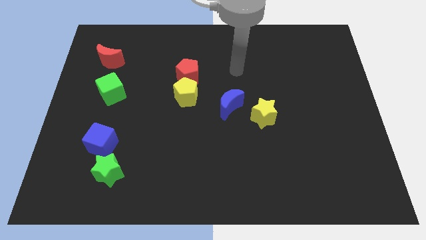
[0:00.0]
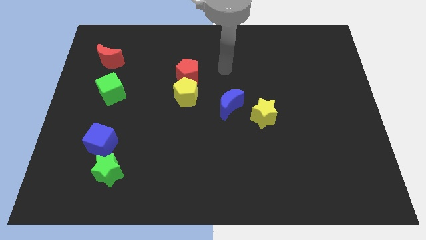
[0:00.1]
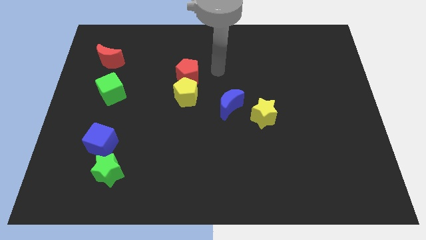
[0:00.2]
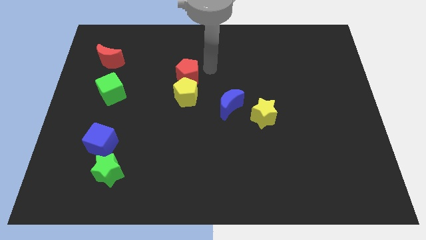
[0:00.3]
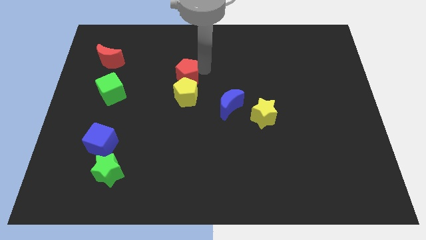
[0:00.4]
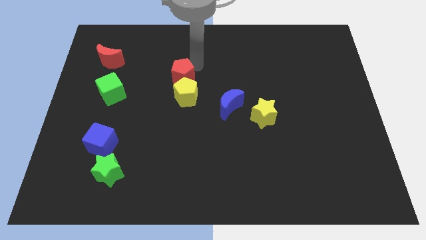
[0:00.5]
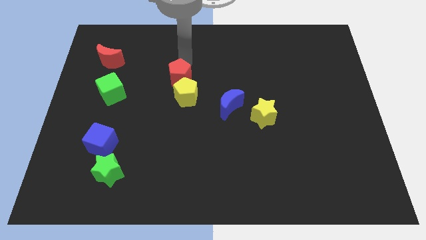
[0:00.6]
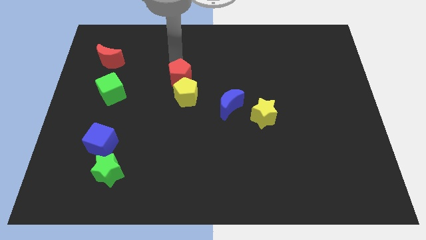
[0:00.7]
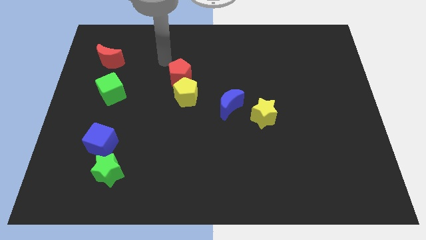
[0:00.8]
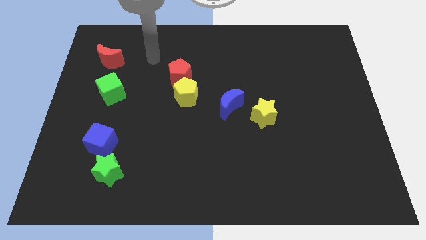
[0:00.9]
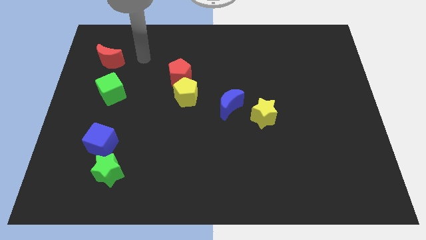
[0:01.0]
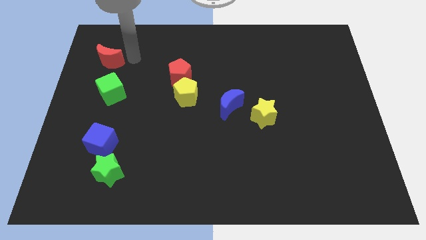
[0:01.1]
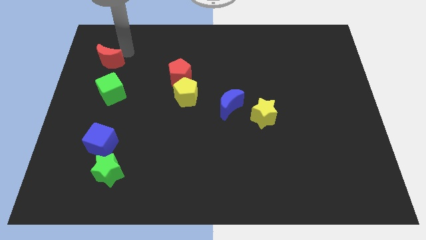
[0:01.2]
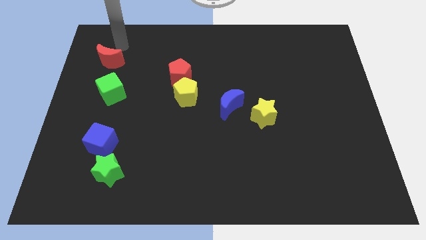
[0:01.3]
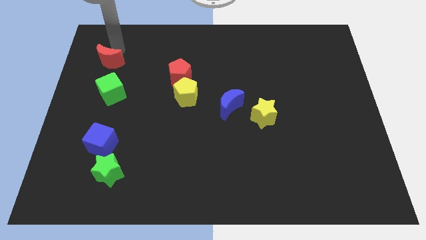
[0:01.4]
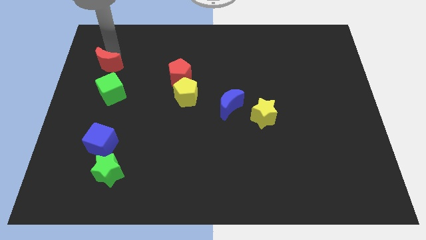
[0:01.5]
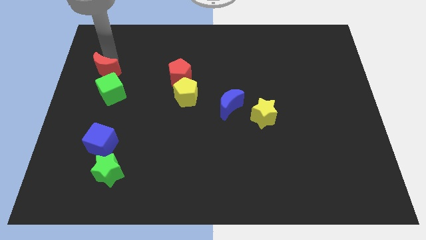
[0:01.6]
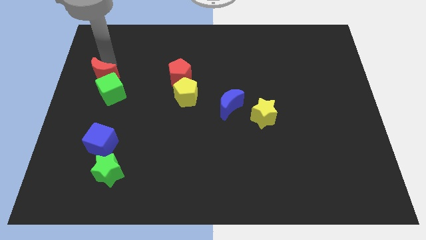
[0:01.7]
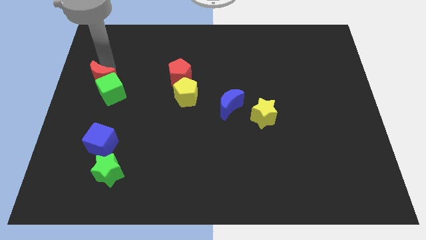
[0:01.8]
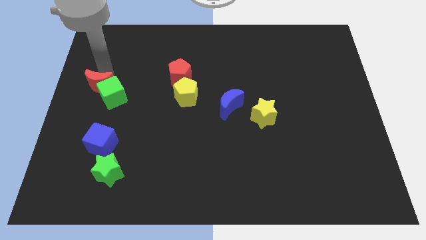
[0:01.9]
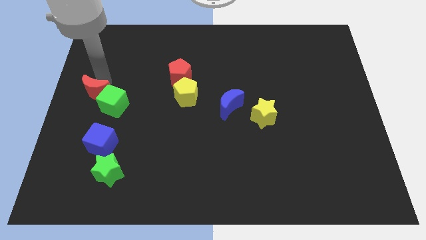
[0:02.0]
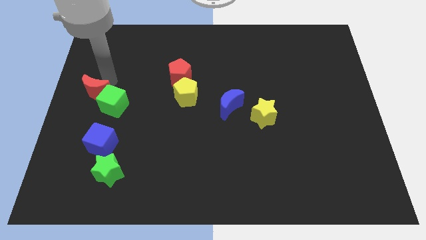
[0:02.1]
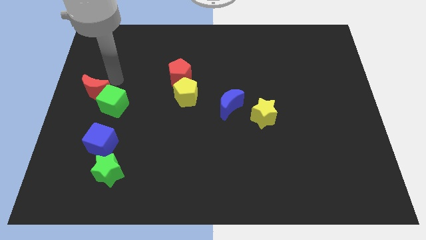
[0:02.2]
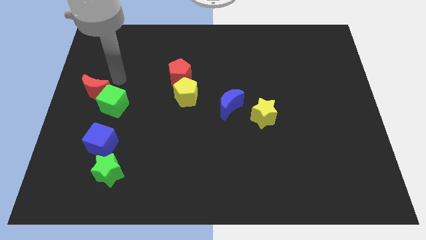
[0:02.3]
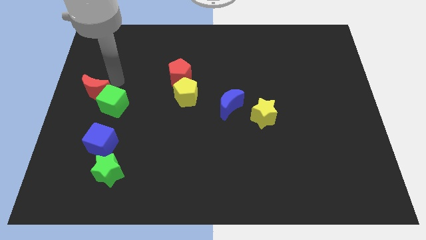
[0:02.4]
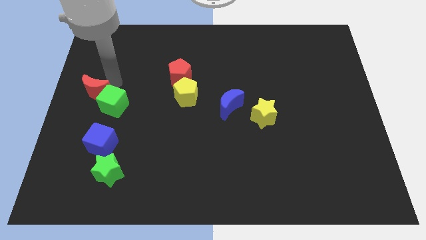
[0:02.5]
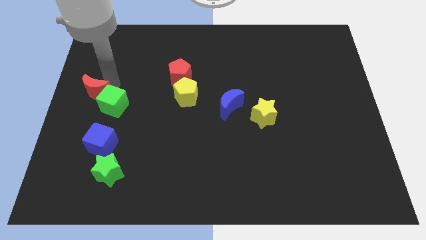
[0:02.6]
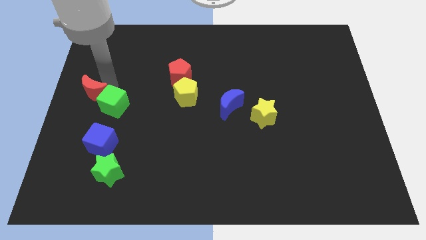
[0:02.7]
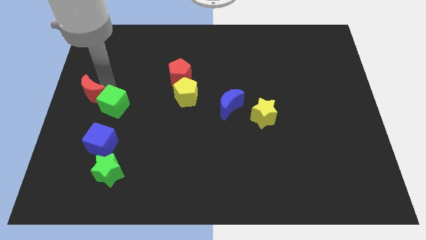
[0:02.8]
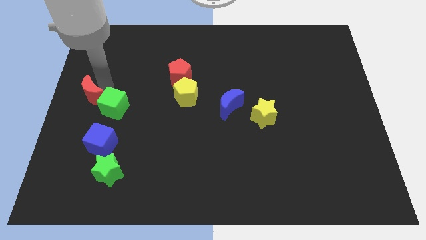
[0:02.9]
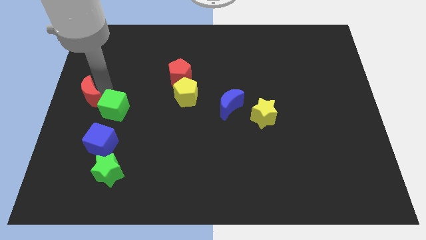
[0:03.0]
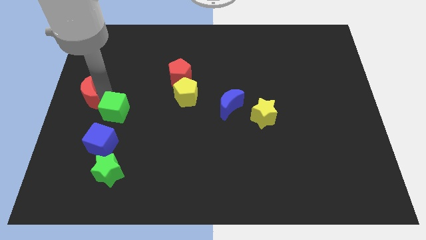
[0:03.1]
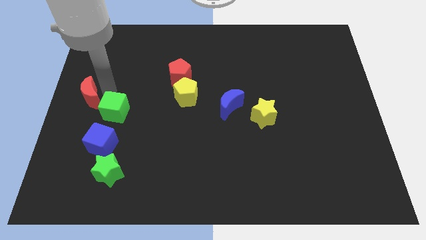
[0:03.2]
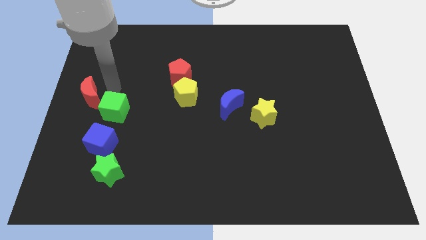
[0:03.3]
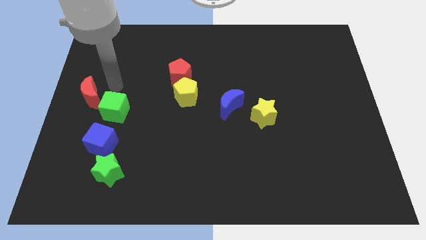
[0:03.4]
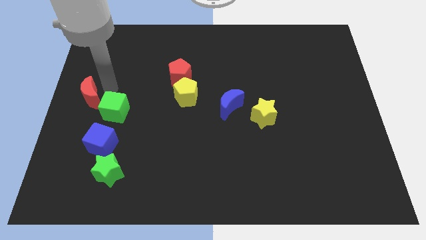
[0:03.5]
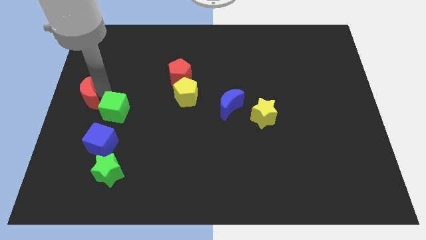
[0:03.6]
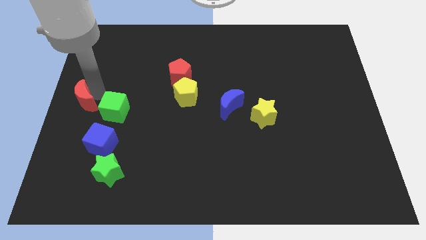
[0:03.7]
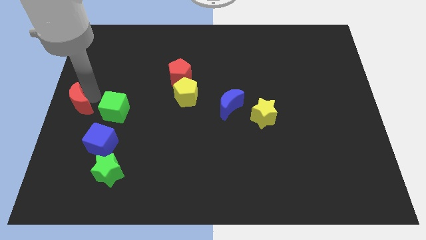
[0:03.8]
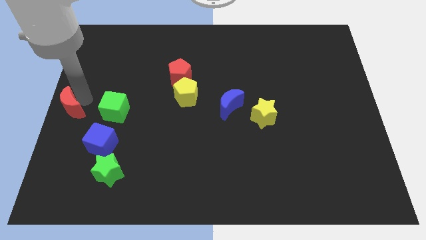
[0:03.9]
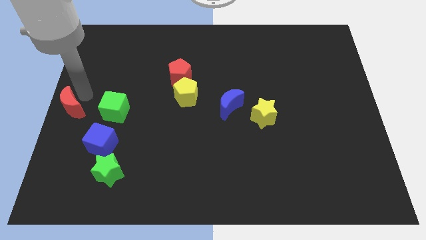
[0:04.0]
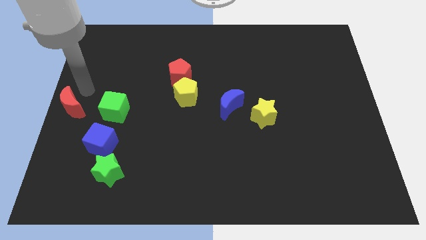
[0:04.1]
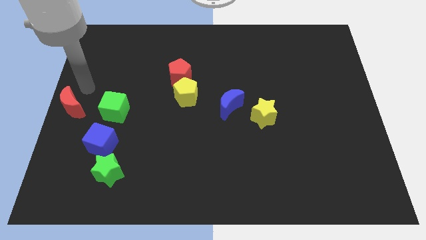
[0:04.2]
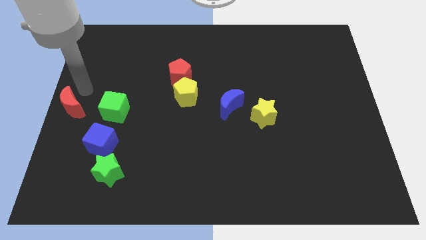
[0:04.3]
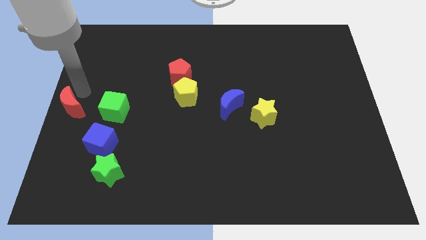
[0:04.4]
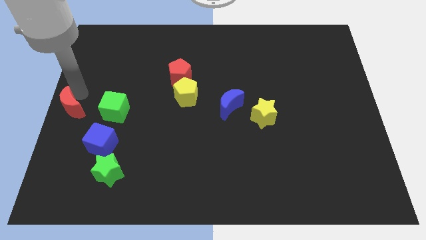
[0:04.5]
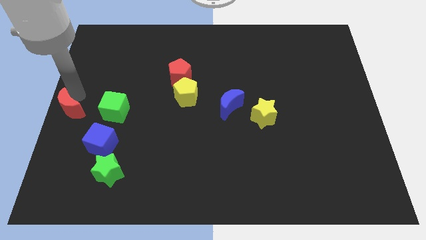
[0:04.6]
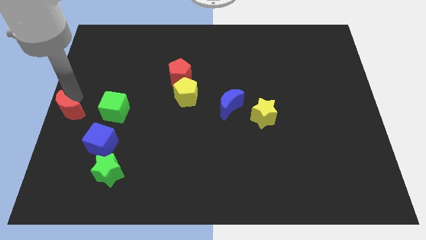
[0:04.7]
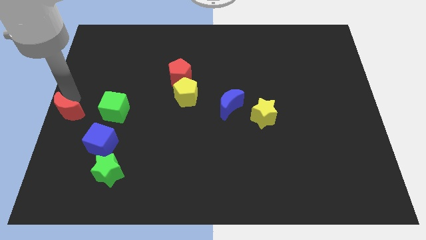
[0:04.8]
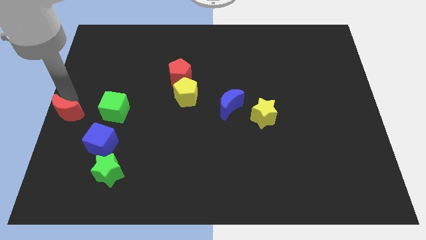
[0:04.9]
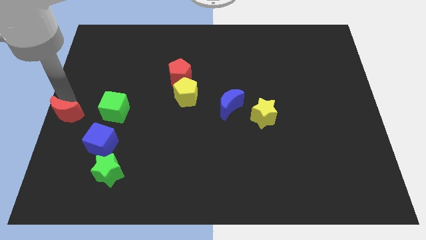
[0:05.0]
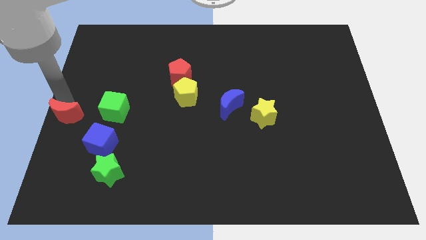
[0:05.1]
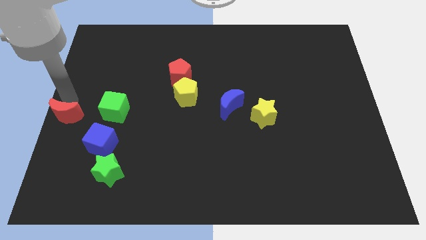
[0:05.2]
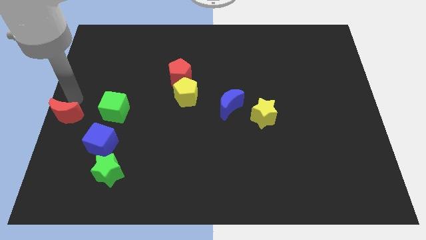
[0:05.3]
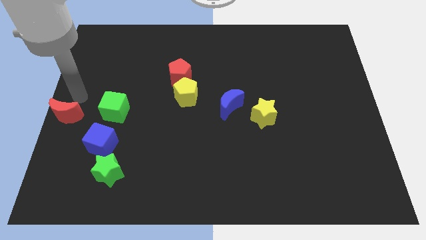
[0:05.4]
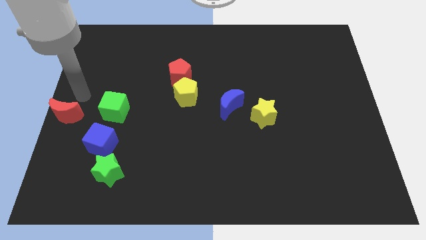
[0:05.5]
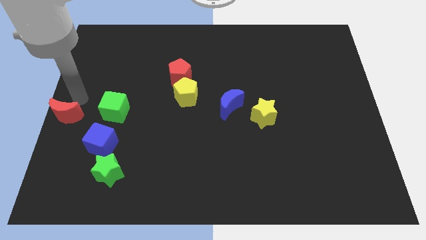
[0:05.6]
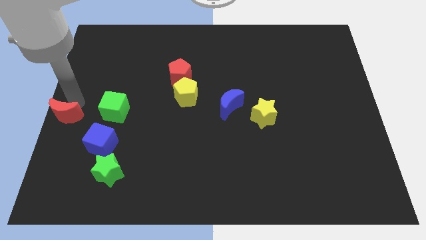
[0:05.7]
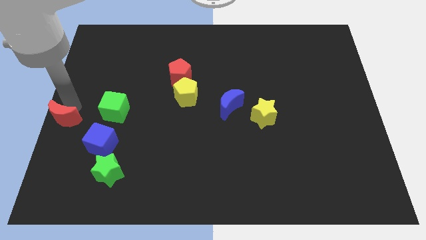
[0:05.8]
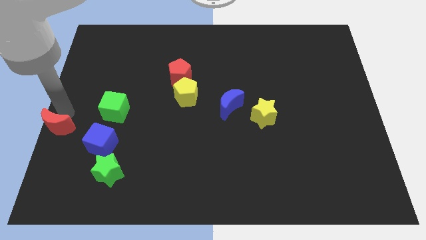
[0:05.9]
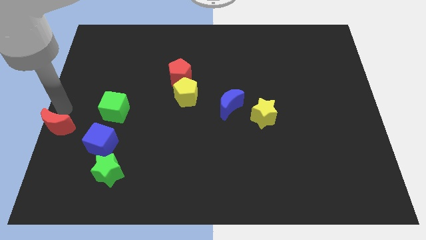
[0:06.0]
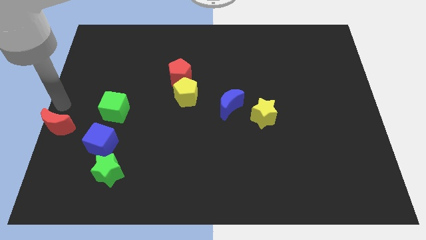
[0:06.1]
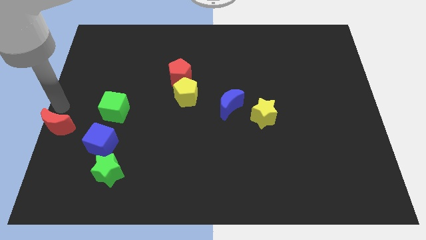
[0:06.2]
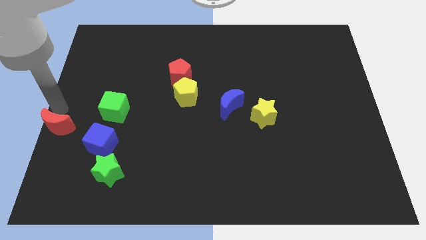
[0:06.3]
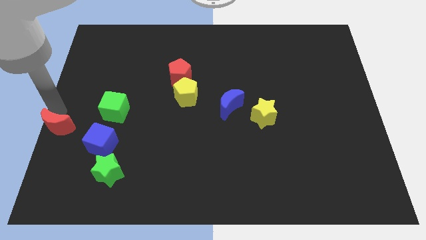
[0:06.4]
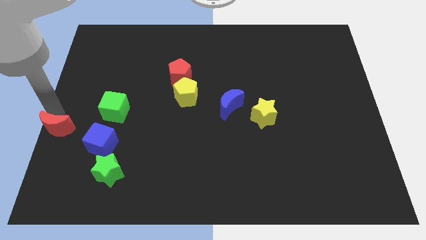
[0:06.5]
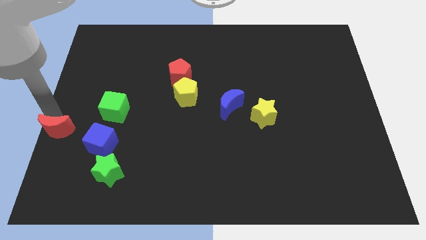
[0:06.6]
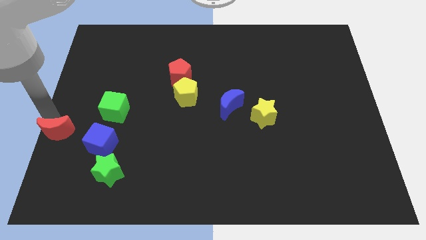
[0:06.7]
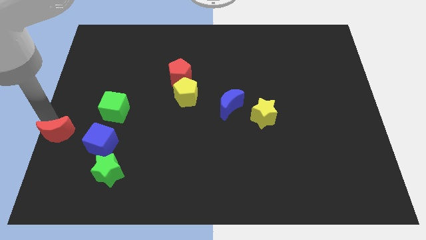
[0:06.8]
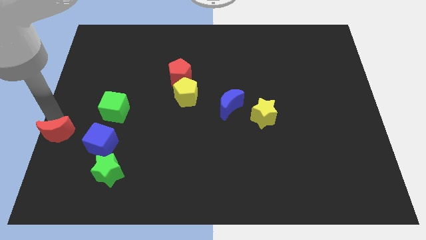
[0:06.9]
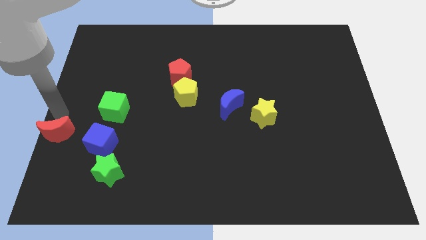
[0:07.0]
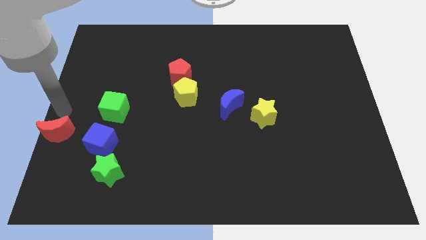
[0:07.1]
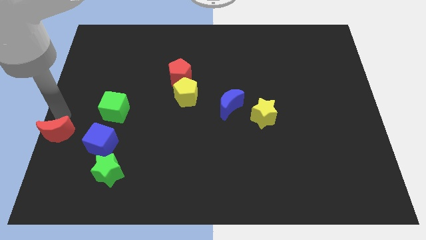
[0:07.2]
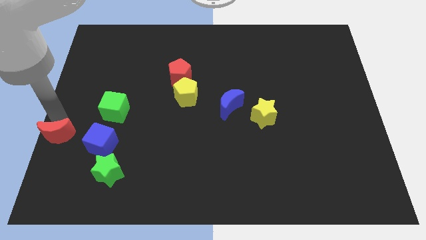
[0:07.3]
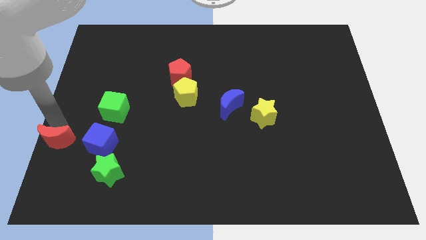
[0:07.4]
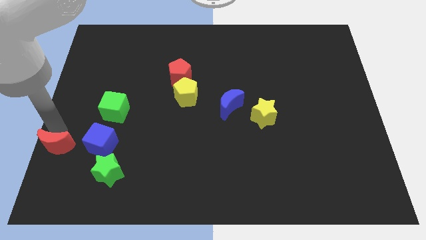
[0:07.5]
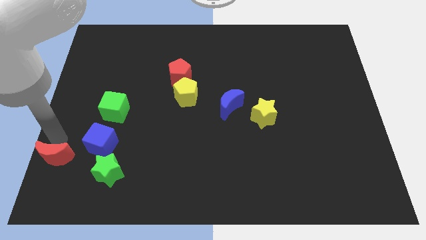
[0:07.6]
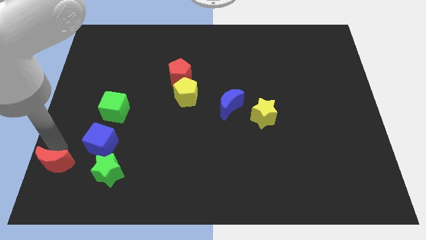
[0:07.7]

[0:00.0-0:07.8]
move the red moon to the bottom left corner
